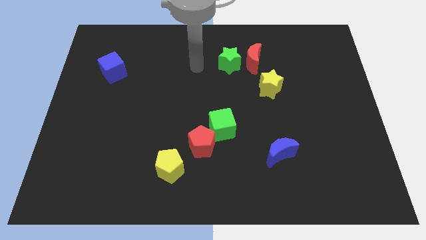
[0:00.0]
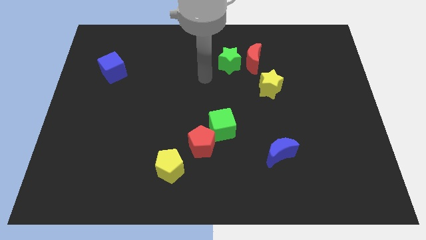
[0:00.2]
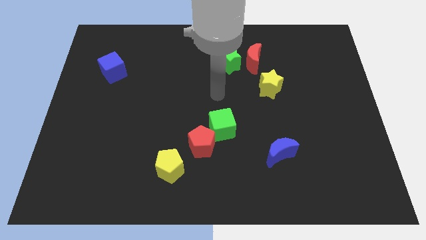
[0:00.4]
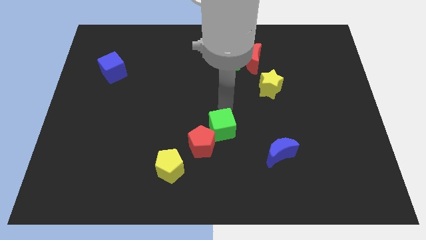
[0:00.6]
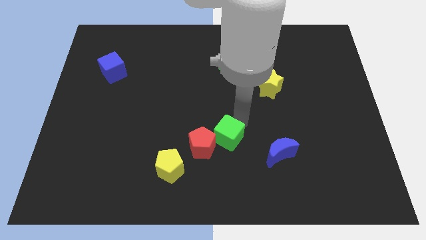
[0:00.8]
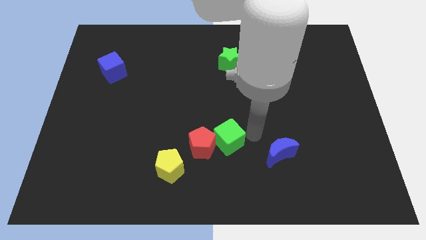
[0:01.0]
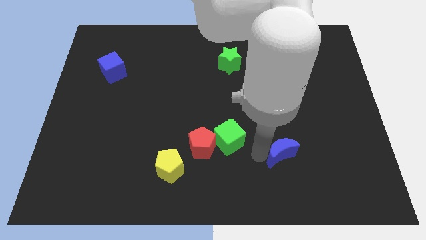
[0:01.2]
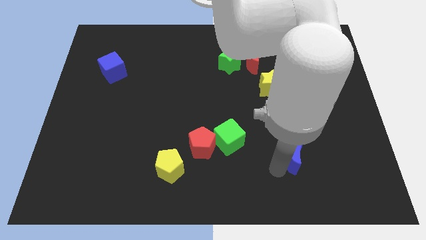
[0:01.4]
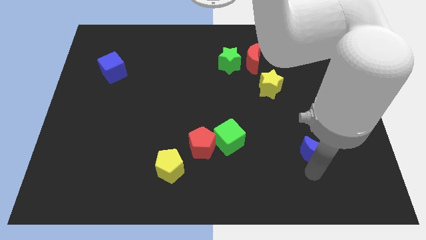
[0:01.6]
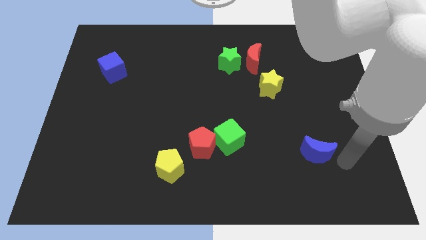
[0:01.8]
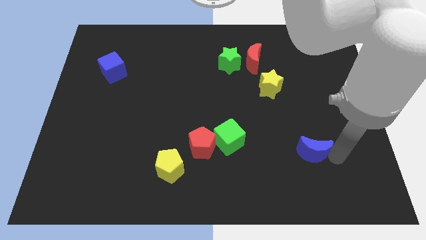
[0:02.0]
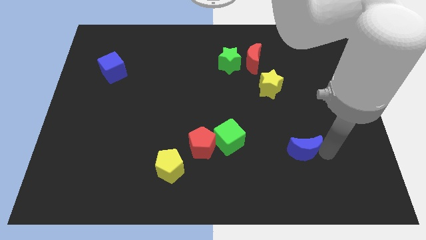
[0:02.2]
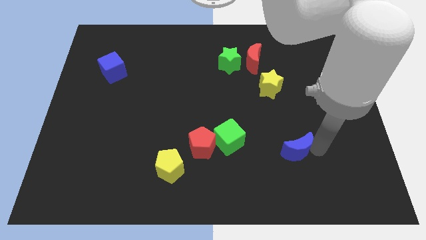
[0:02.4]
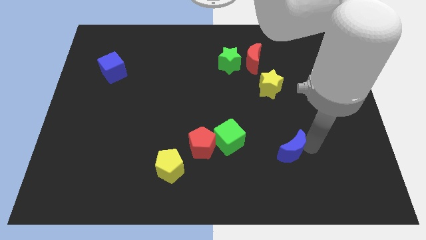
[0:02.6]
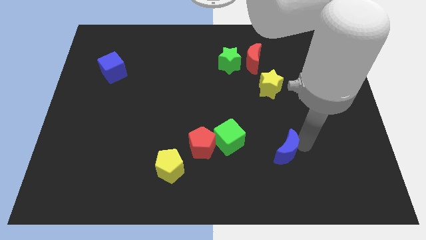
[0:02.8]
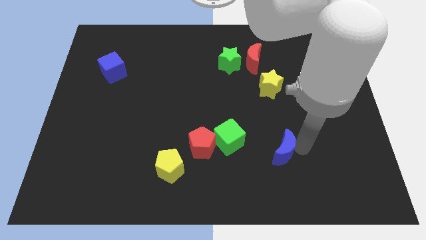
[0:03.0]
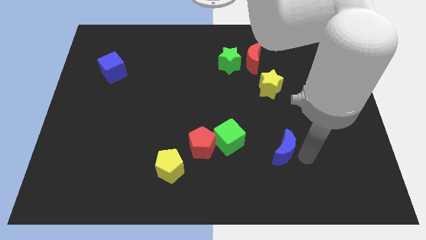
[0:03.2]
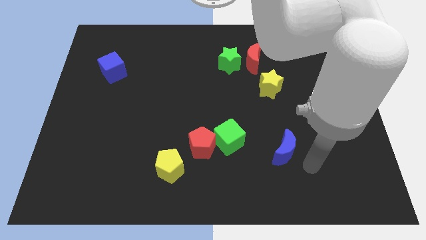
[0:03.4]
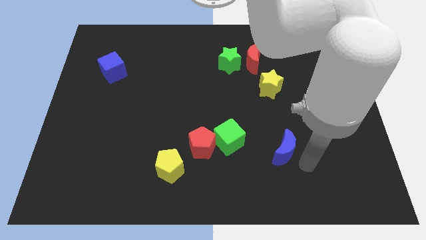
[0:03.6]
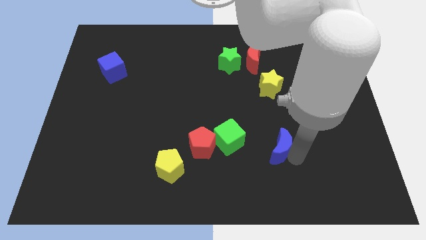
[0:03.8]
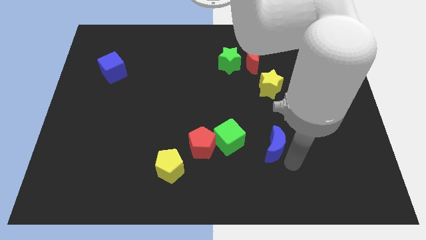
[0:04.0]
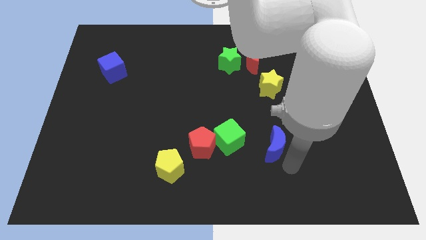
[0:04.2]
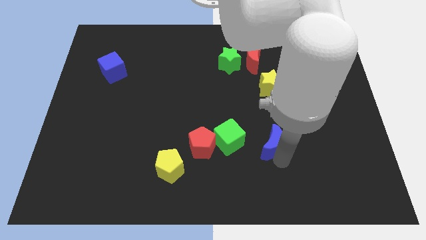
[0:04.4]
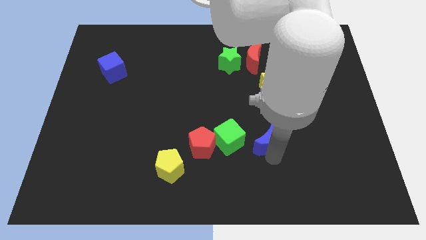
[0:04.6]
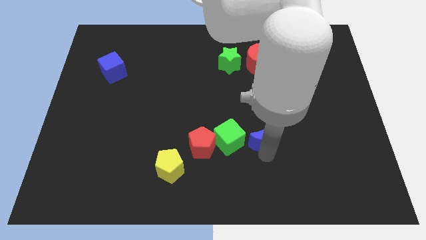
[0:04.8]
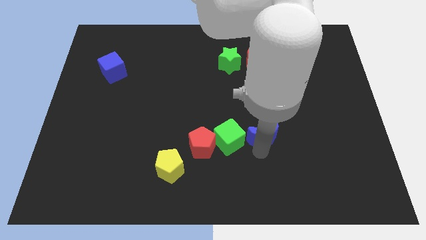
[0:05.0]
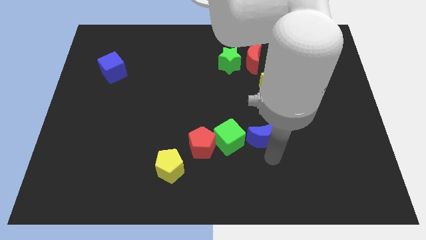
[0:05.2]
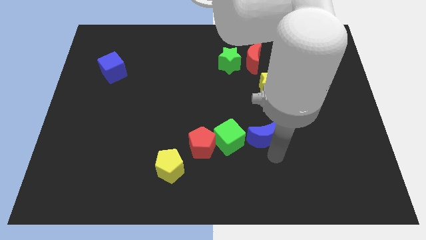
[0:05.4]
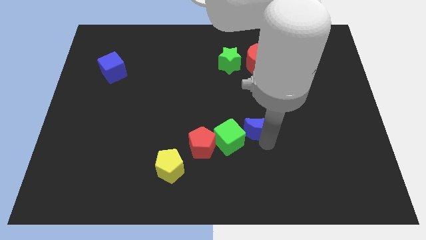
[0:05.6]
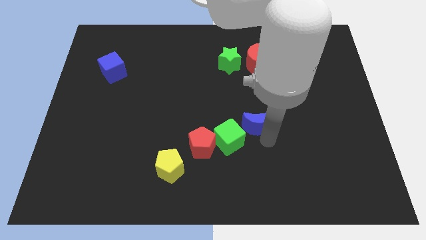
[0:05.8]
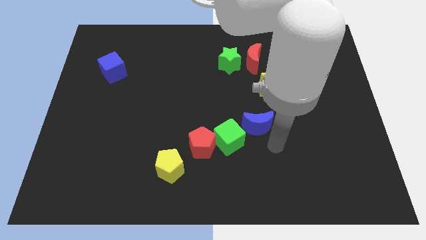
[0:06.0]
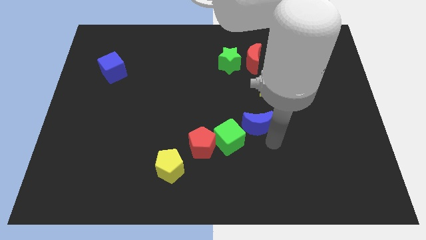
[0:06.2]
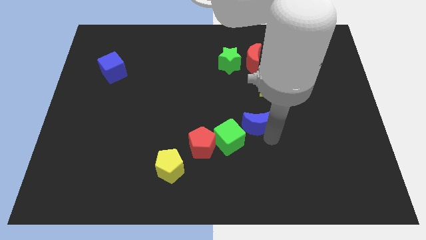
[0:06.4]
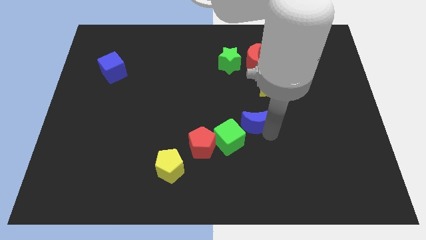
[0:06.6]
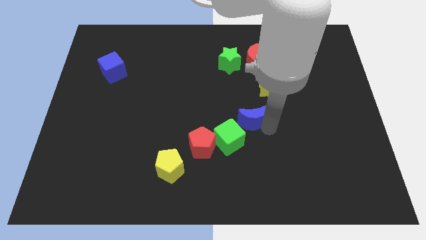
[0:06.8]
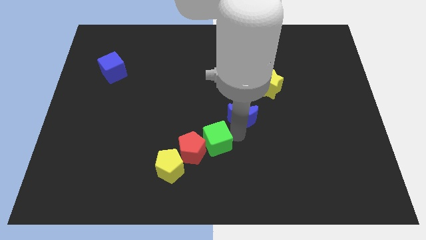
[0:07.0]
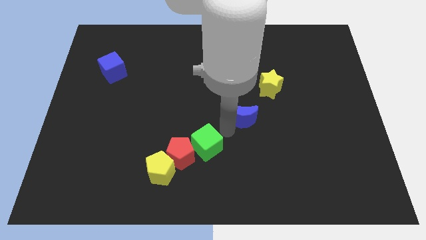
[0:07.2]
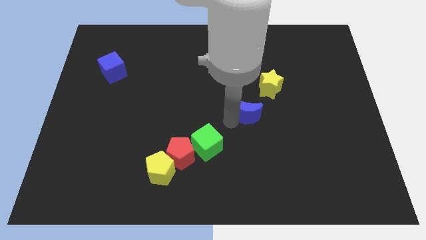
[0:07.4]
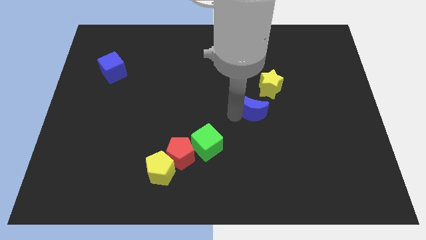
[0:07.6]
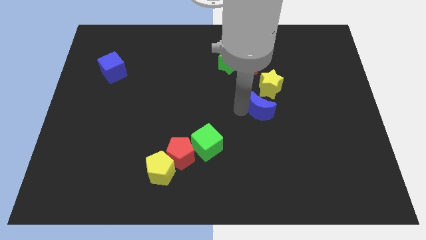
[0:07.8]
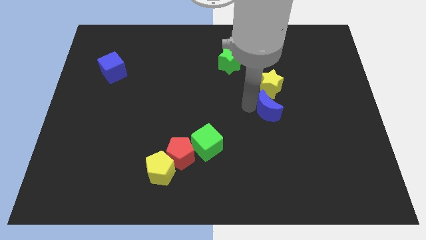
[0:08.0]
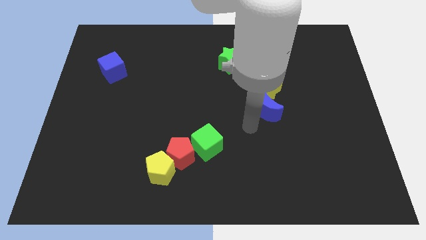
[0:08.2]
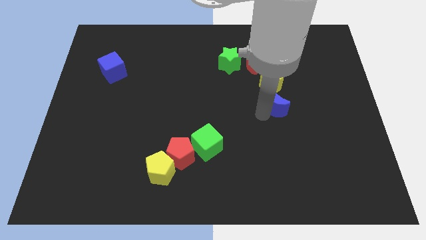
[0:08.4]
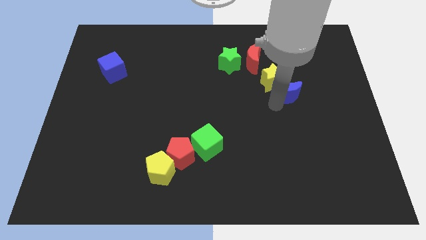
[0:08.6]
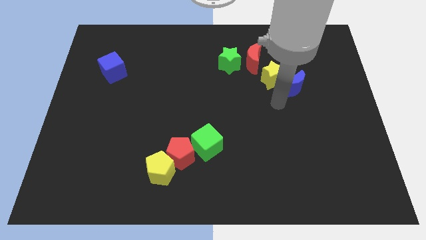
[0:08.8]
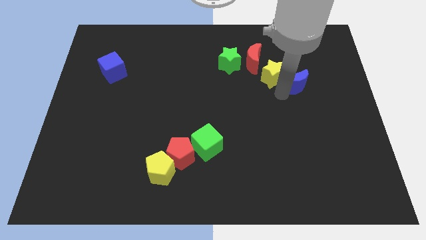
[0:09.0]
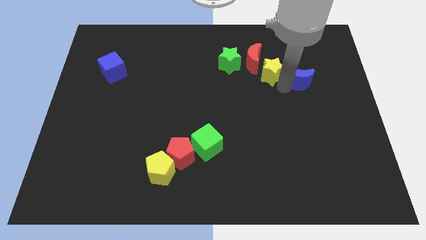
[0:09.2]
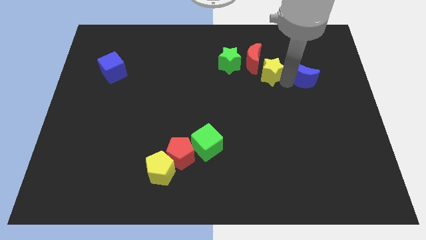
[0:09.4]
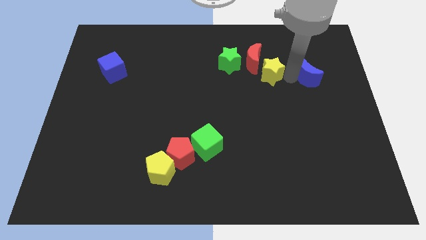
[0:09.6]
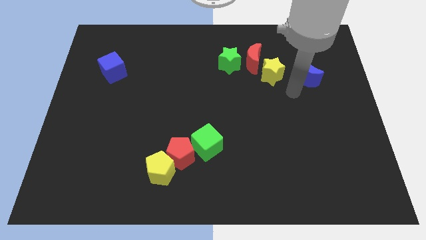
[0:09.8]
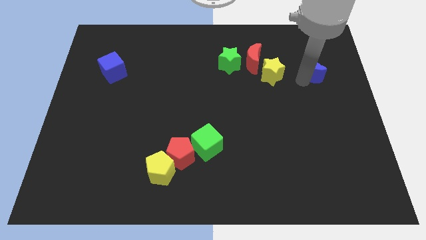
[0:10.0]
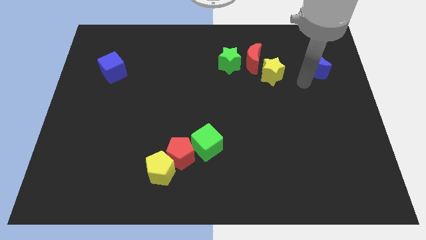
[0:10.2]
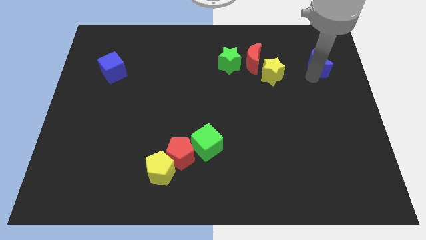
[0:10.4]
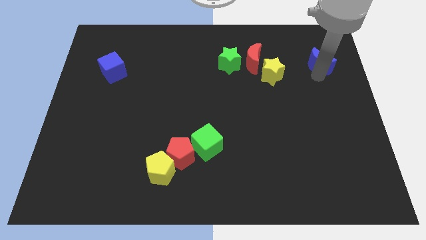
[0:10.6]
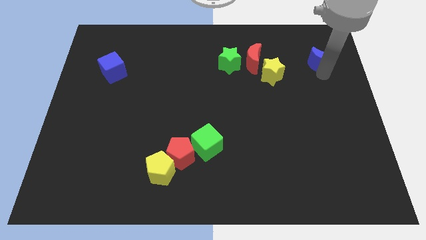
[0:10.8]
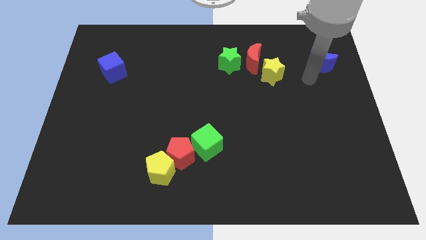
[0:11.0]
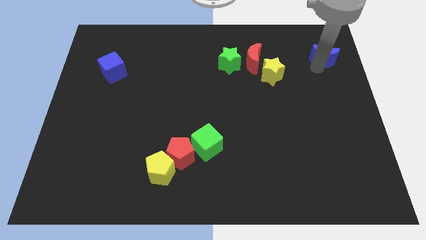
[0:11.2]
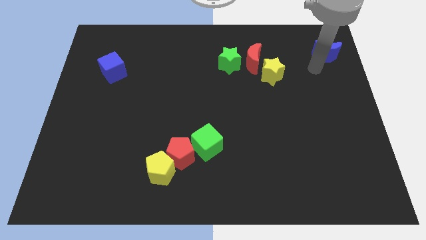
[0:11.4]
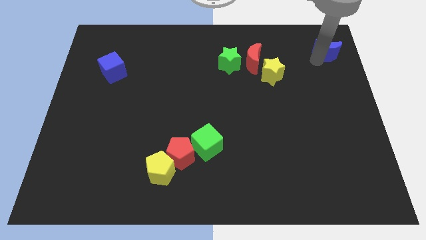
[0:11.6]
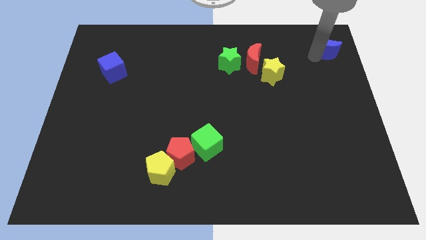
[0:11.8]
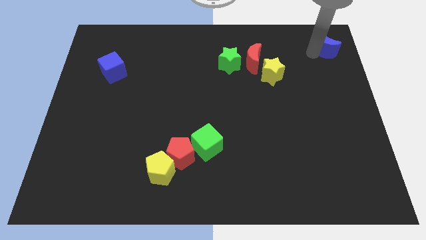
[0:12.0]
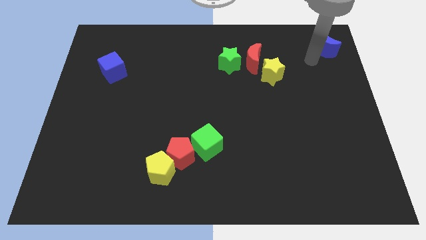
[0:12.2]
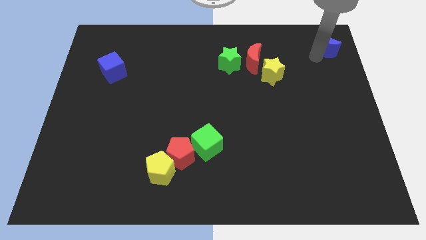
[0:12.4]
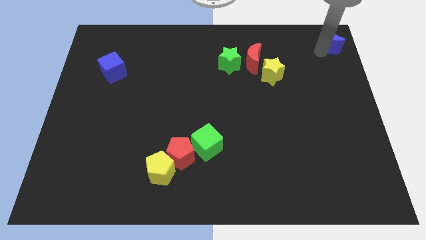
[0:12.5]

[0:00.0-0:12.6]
move the blue moon to the top right

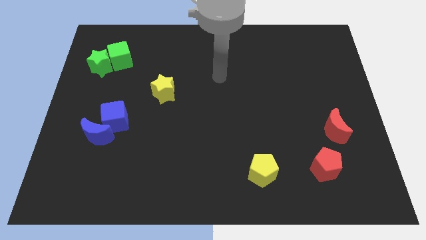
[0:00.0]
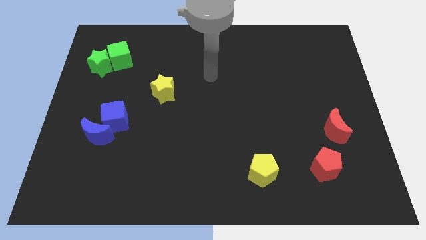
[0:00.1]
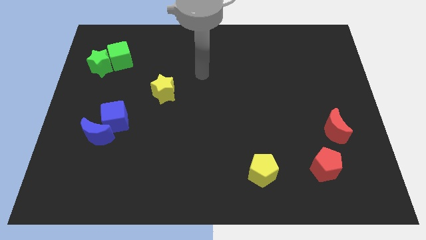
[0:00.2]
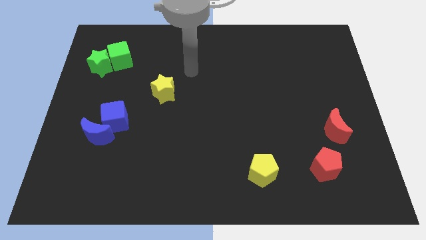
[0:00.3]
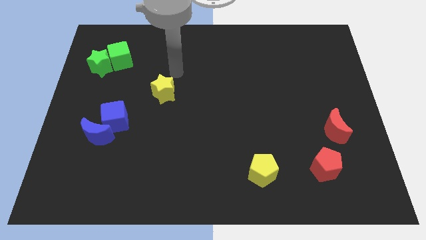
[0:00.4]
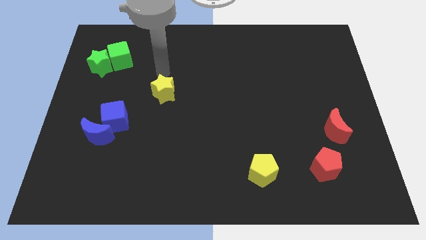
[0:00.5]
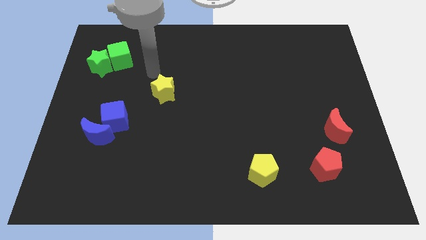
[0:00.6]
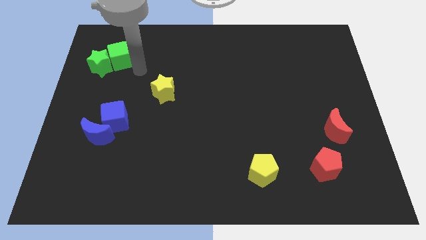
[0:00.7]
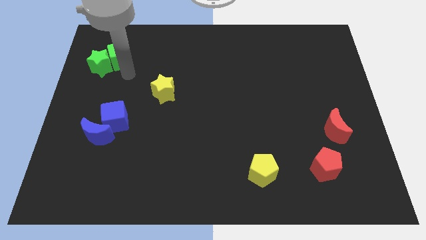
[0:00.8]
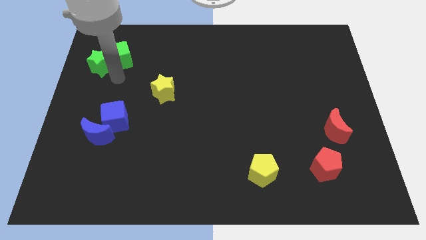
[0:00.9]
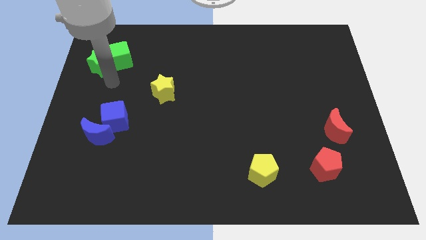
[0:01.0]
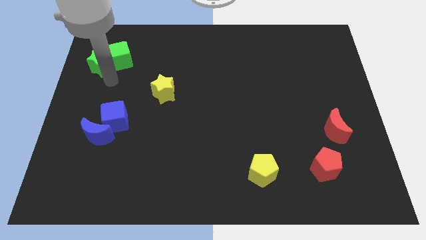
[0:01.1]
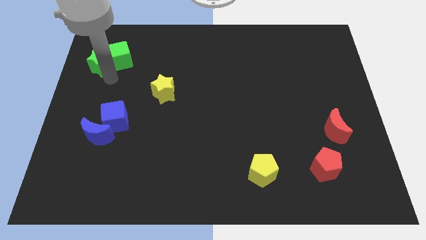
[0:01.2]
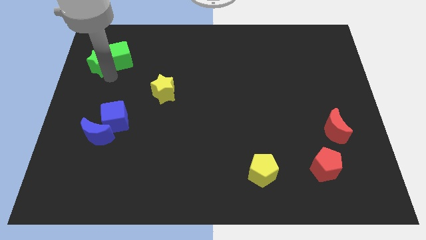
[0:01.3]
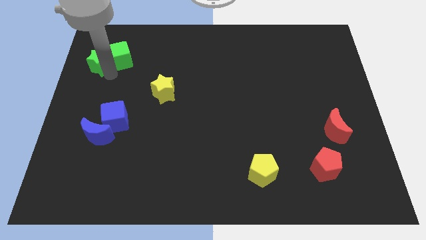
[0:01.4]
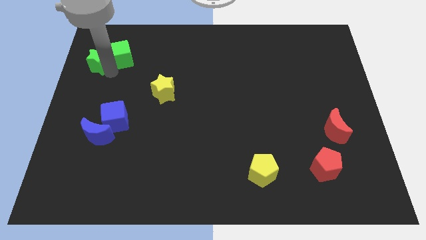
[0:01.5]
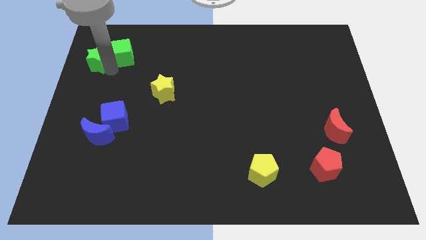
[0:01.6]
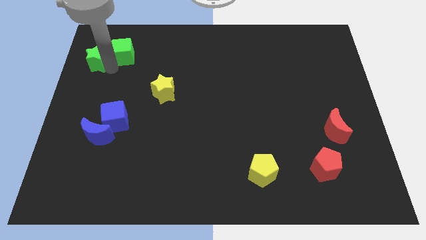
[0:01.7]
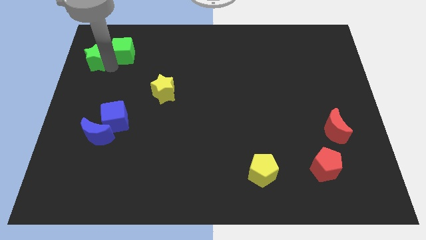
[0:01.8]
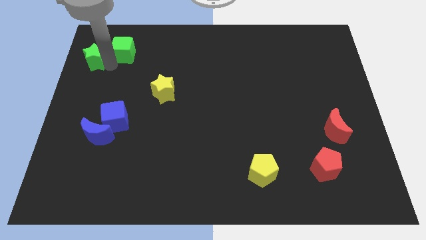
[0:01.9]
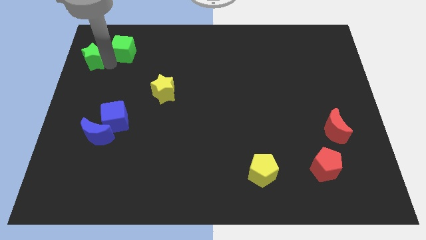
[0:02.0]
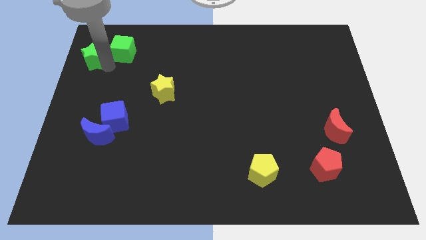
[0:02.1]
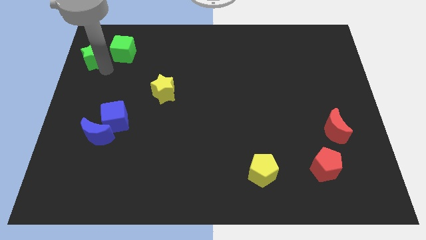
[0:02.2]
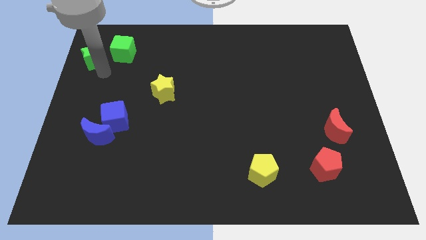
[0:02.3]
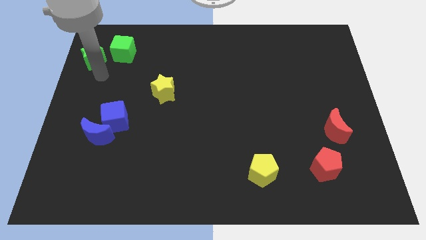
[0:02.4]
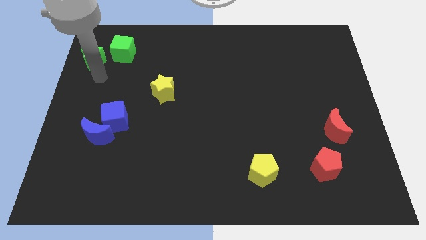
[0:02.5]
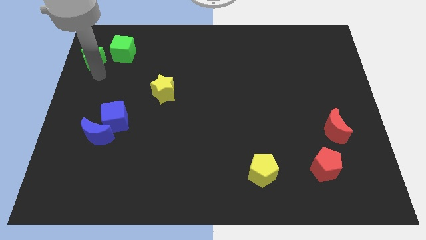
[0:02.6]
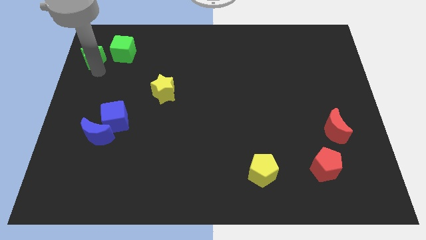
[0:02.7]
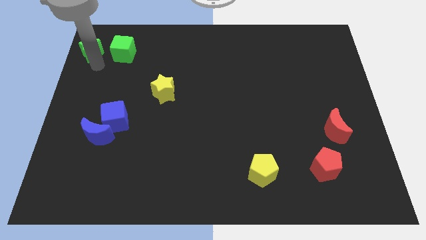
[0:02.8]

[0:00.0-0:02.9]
slide the green star to the top left of the board
